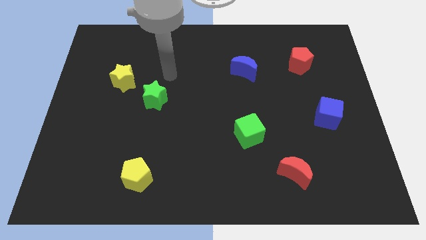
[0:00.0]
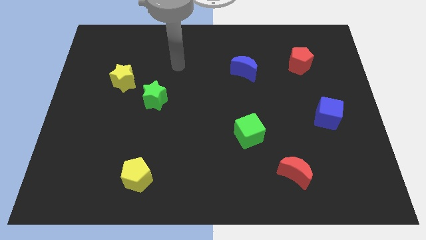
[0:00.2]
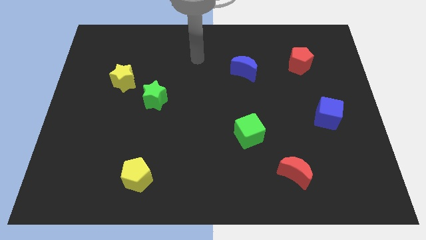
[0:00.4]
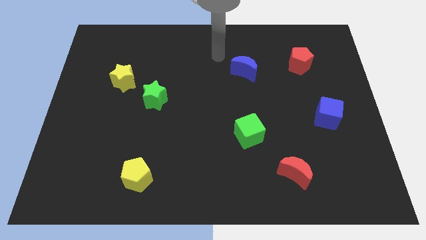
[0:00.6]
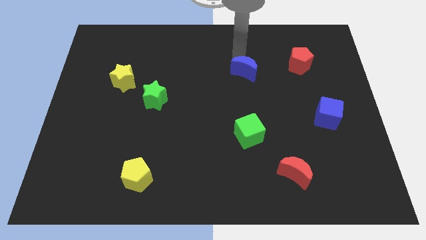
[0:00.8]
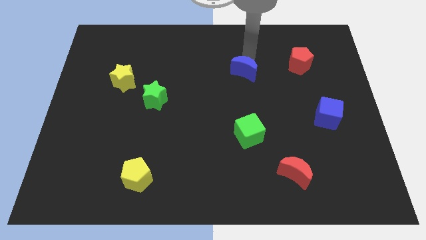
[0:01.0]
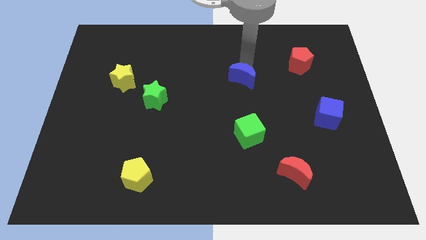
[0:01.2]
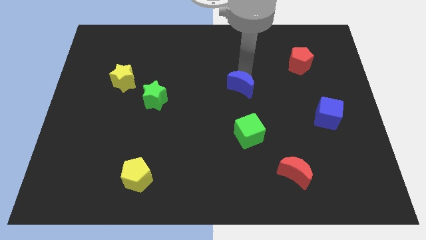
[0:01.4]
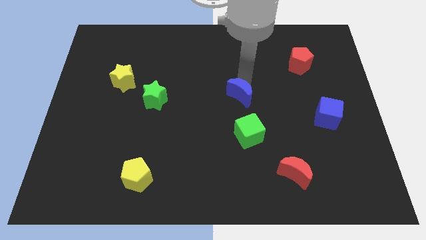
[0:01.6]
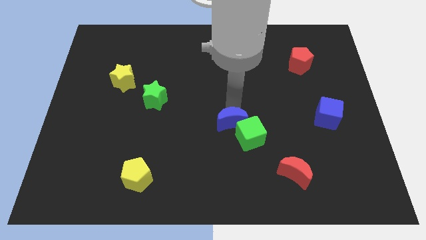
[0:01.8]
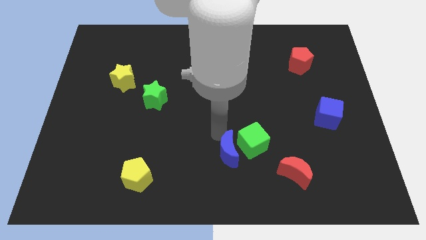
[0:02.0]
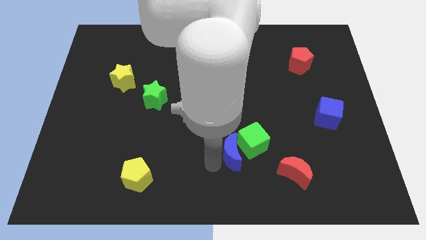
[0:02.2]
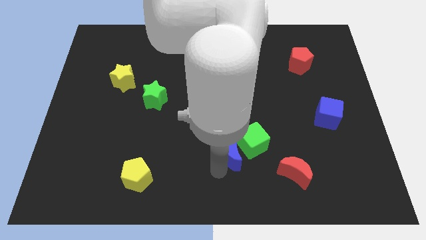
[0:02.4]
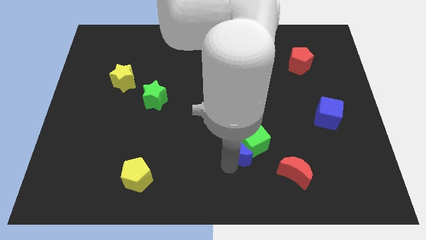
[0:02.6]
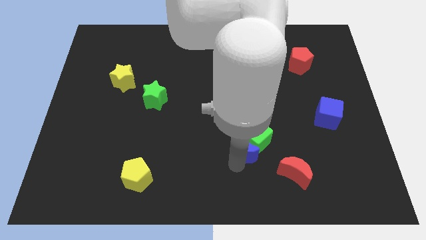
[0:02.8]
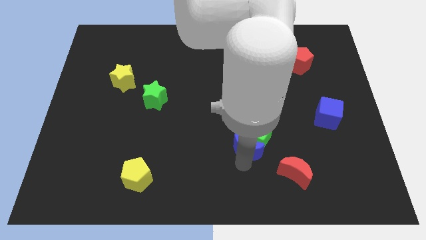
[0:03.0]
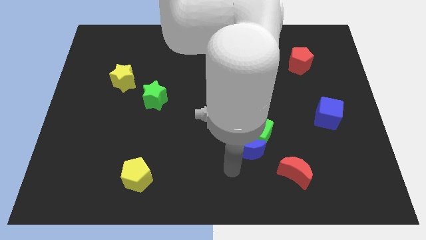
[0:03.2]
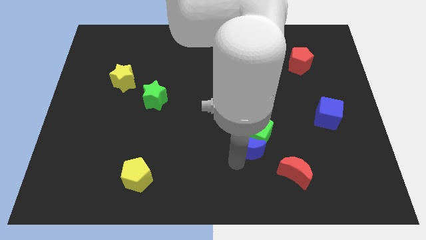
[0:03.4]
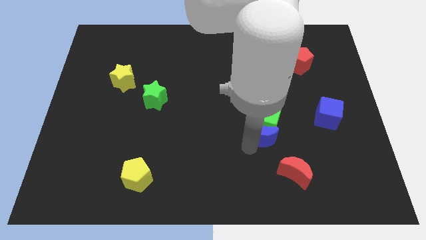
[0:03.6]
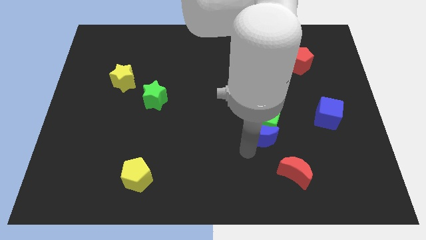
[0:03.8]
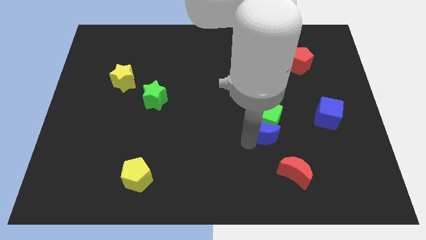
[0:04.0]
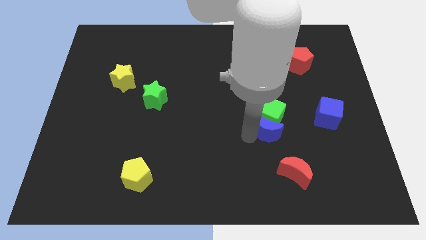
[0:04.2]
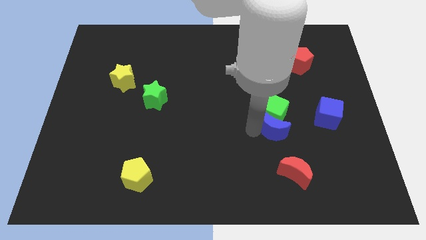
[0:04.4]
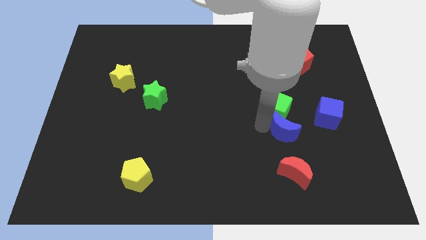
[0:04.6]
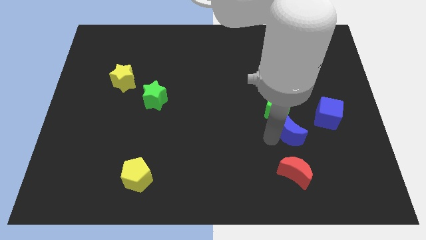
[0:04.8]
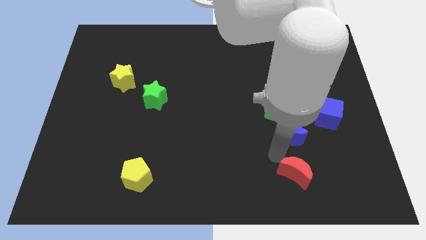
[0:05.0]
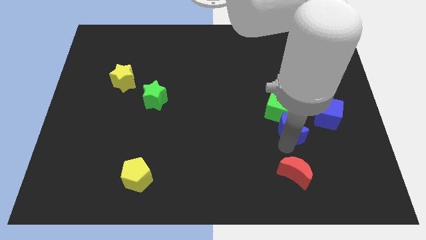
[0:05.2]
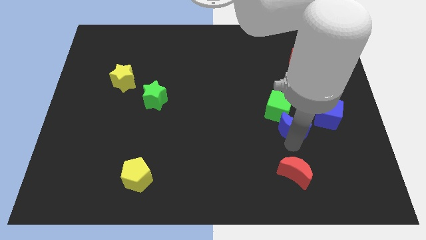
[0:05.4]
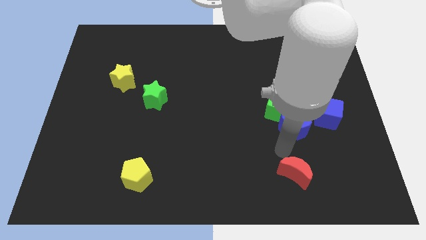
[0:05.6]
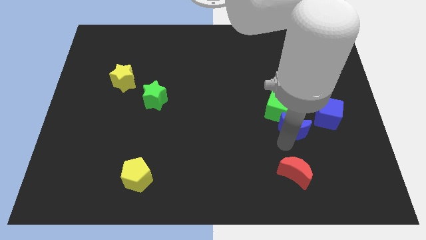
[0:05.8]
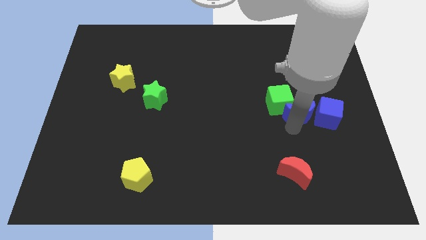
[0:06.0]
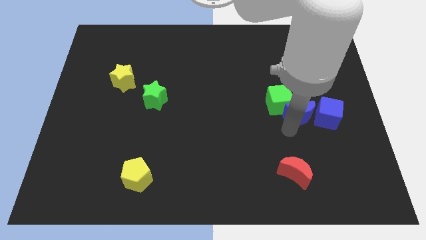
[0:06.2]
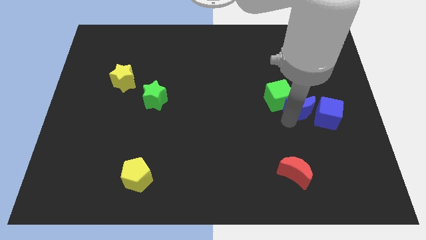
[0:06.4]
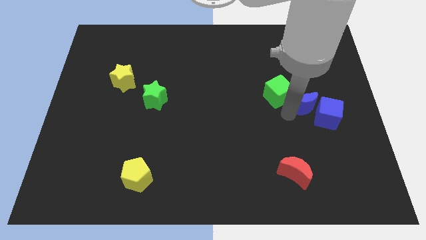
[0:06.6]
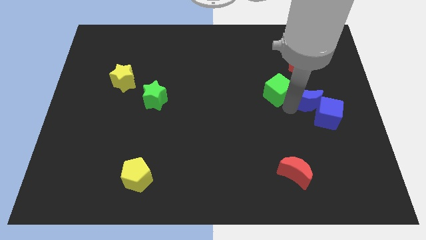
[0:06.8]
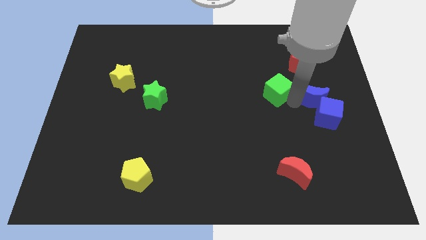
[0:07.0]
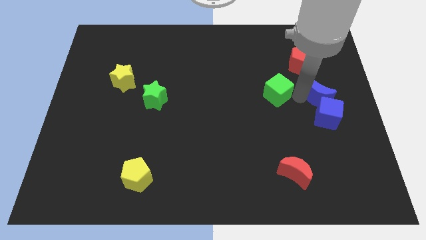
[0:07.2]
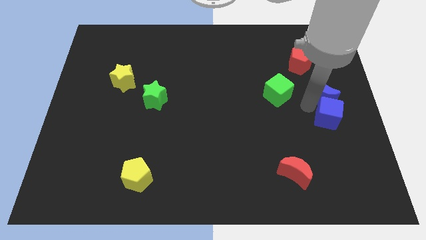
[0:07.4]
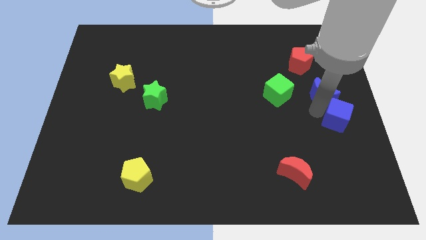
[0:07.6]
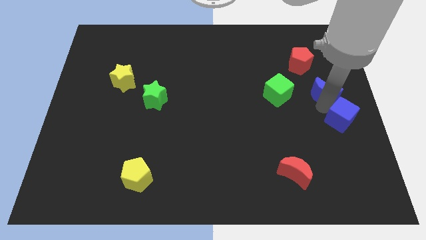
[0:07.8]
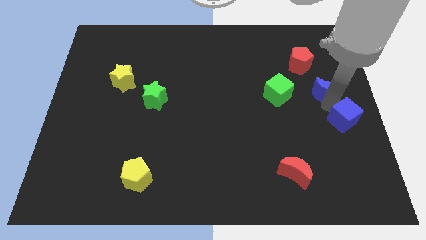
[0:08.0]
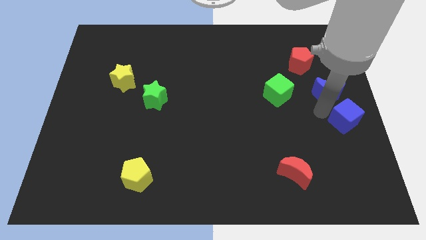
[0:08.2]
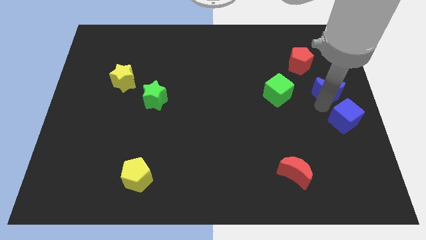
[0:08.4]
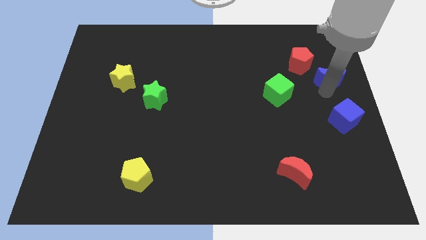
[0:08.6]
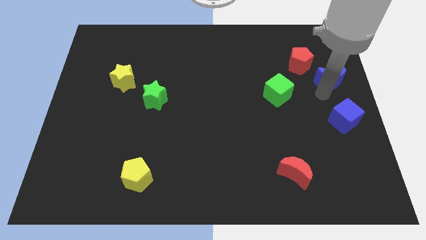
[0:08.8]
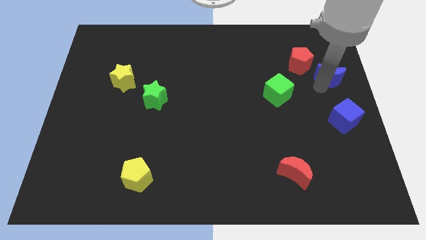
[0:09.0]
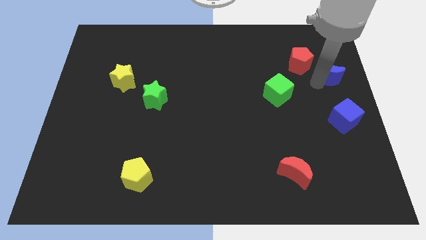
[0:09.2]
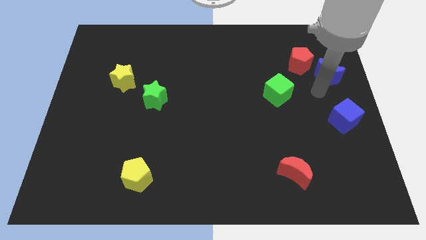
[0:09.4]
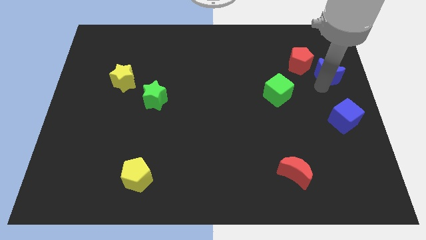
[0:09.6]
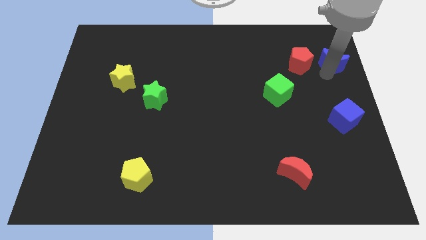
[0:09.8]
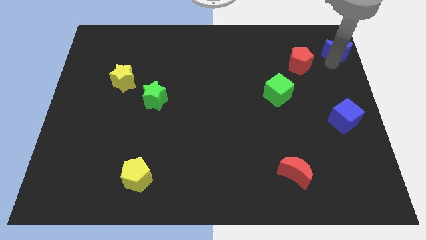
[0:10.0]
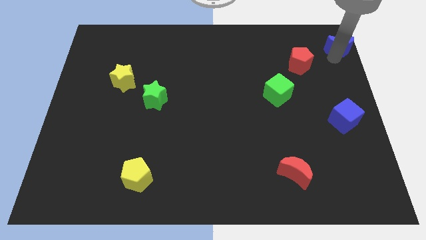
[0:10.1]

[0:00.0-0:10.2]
slide the blue moon to the top right

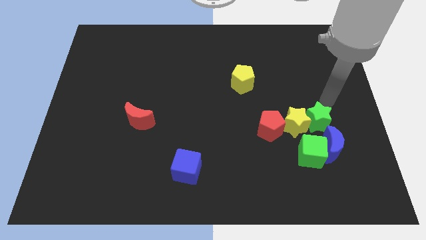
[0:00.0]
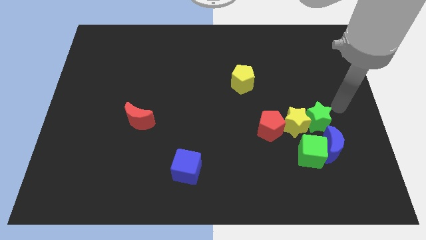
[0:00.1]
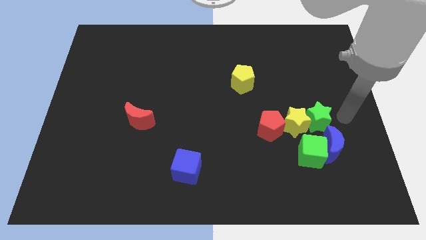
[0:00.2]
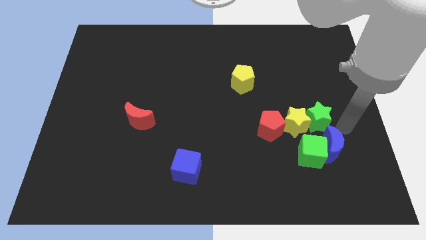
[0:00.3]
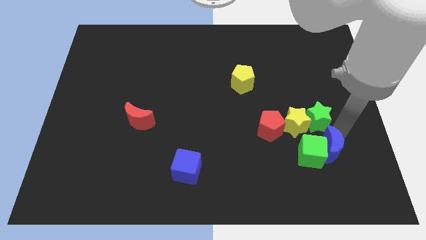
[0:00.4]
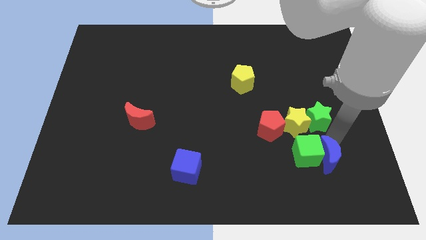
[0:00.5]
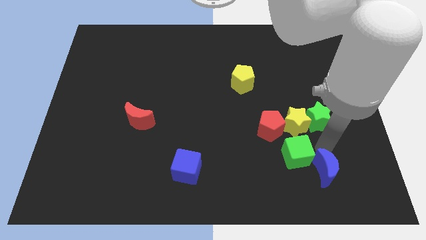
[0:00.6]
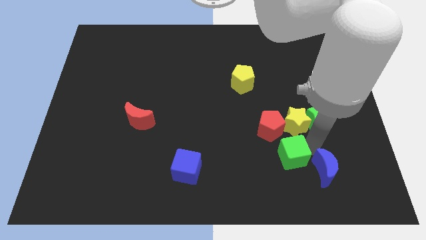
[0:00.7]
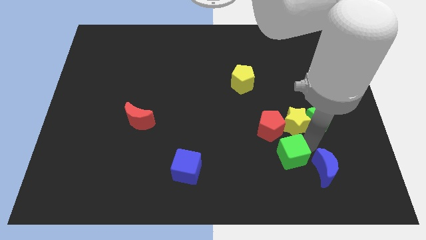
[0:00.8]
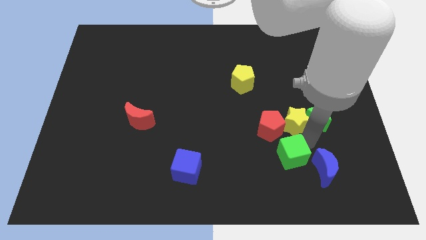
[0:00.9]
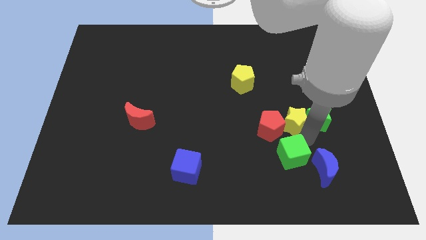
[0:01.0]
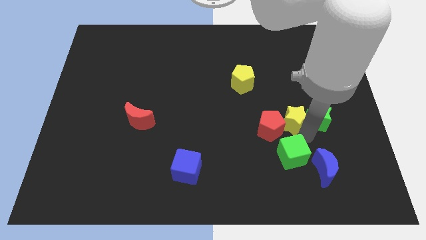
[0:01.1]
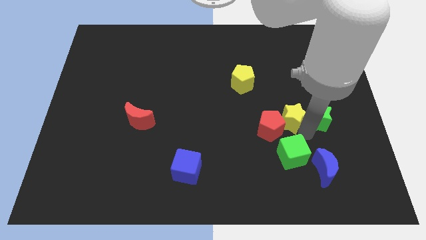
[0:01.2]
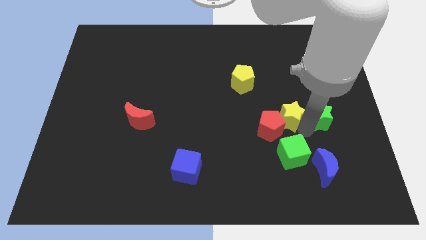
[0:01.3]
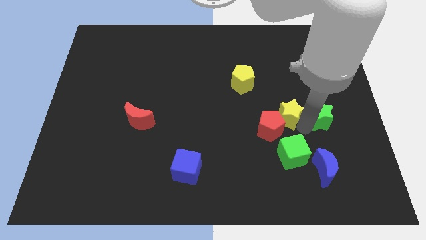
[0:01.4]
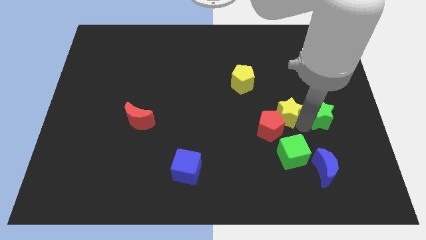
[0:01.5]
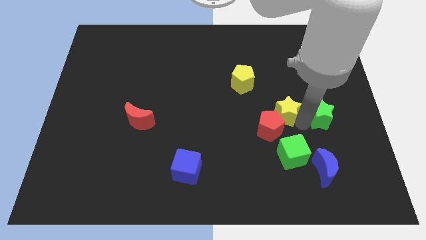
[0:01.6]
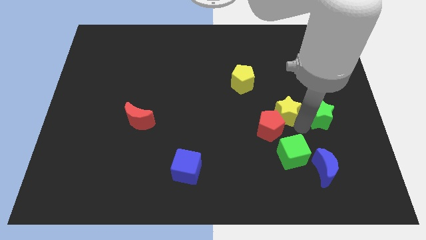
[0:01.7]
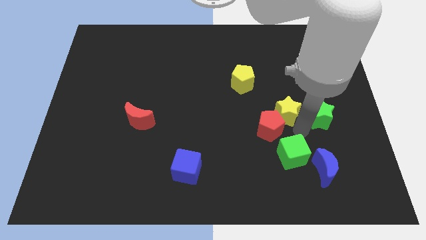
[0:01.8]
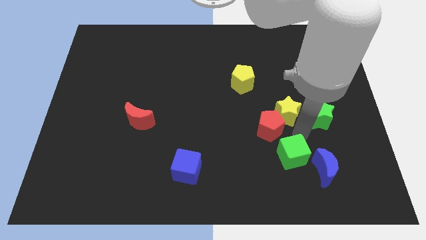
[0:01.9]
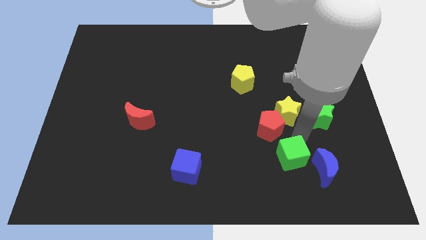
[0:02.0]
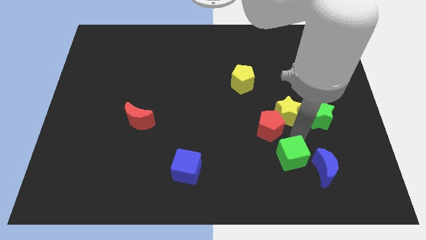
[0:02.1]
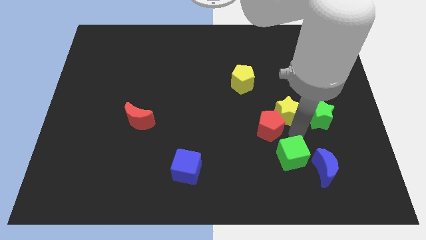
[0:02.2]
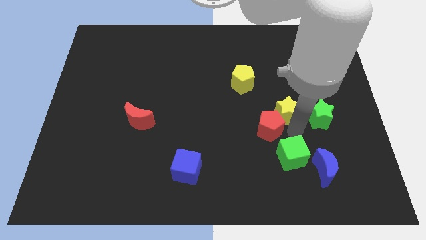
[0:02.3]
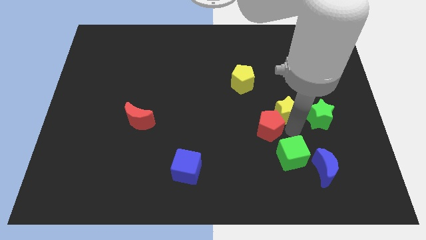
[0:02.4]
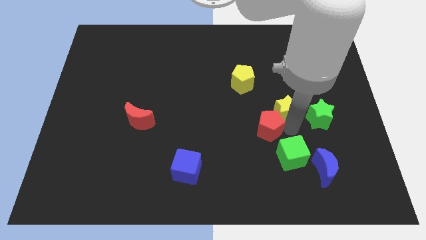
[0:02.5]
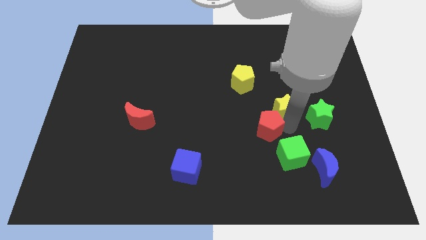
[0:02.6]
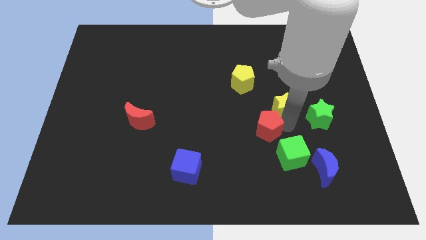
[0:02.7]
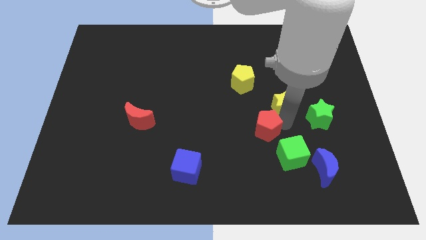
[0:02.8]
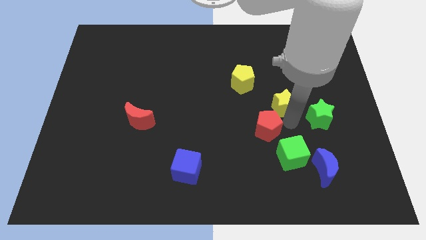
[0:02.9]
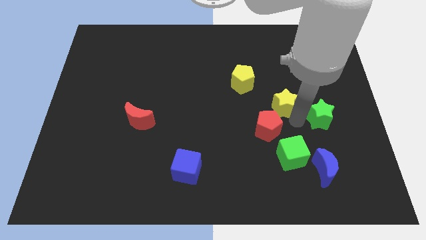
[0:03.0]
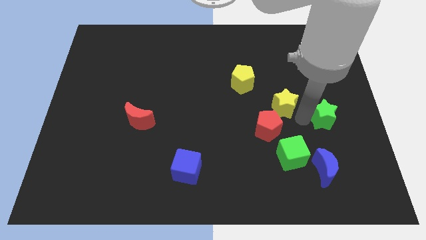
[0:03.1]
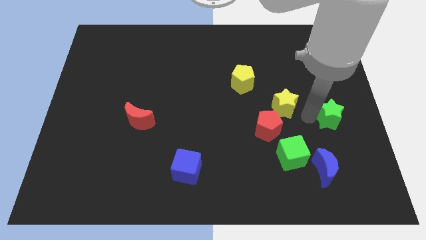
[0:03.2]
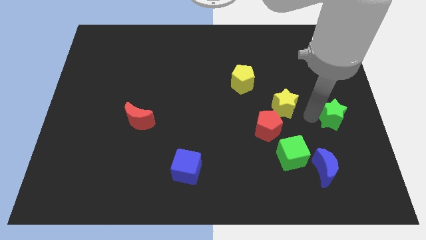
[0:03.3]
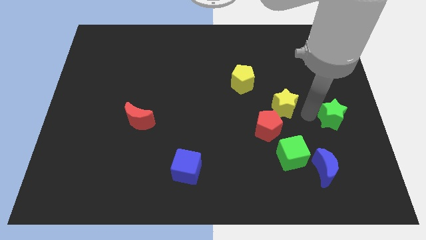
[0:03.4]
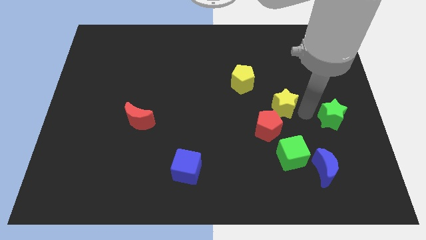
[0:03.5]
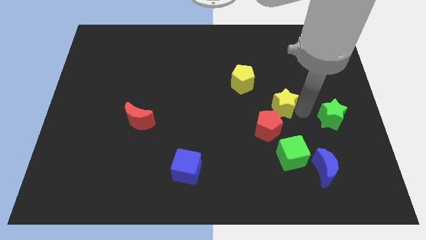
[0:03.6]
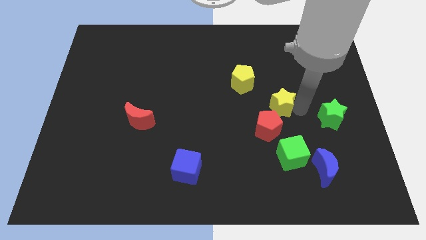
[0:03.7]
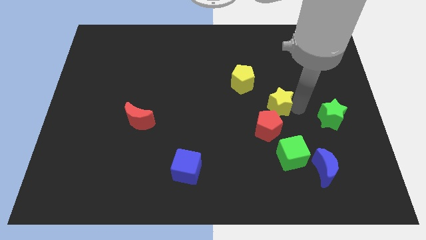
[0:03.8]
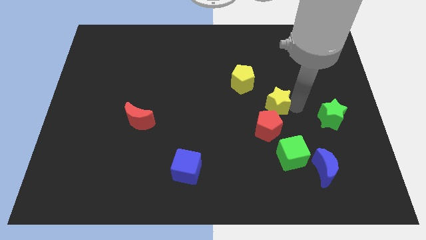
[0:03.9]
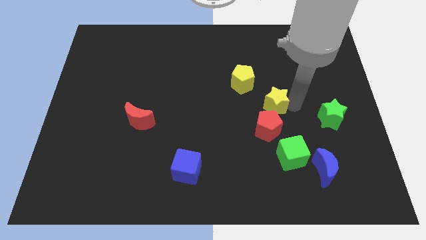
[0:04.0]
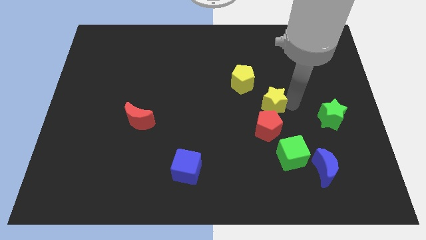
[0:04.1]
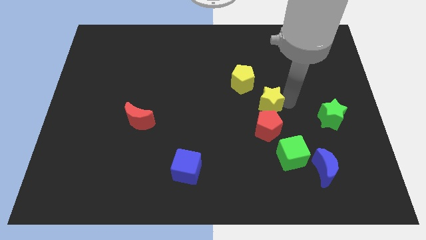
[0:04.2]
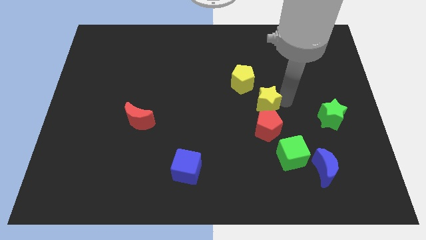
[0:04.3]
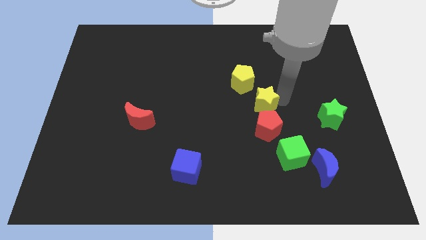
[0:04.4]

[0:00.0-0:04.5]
put the yellow star to the center
